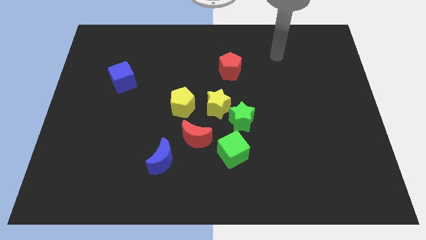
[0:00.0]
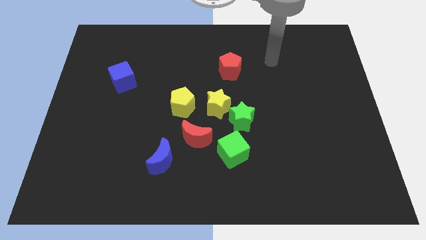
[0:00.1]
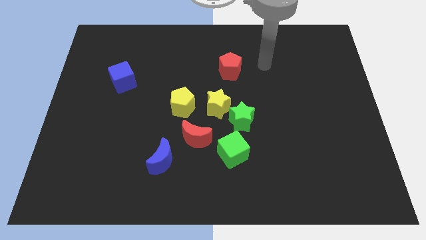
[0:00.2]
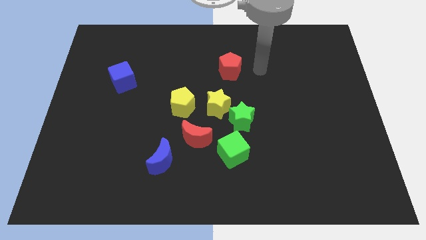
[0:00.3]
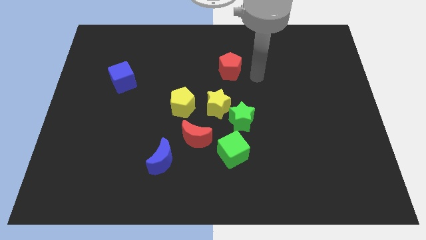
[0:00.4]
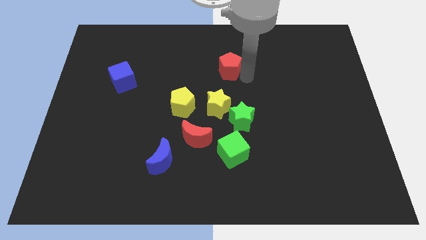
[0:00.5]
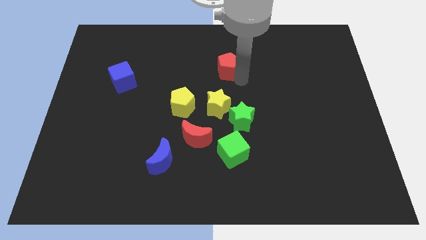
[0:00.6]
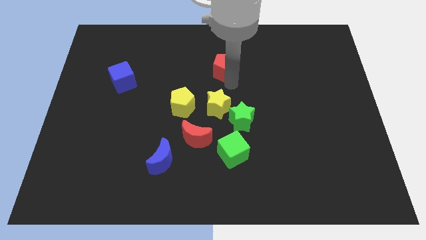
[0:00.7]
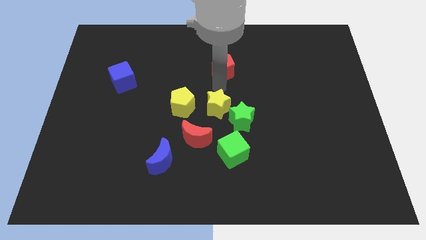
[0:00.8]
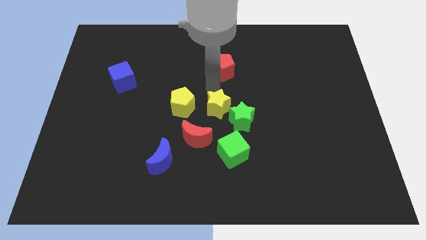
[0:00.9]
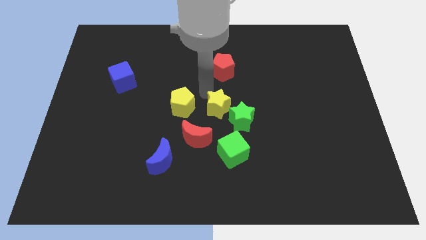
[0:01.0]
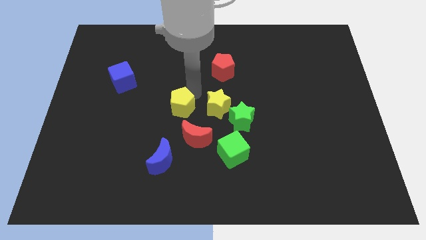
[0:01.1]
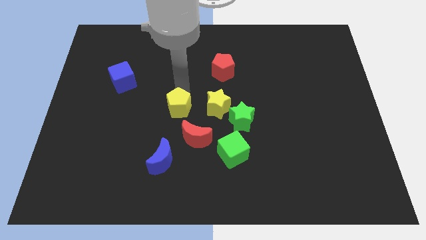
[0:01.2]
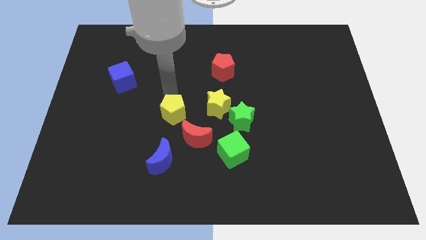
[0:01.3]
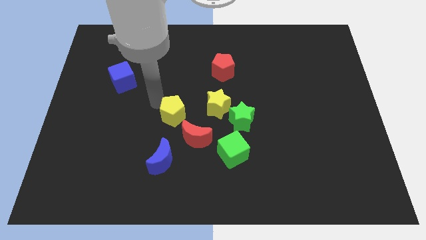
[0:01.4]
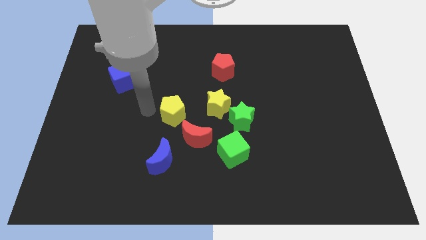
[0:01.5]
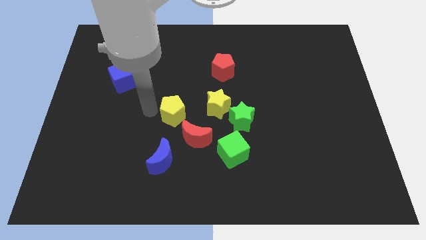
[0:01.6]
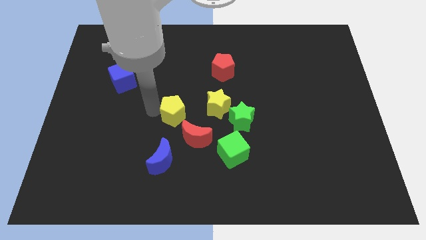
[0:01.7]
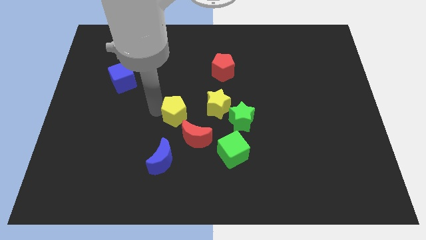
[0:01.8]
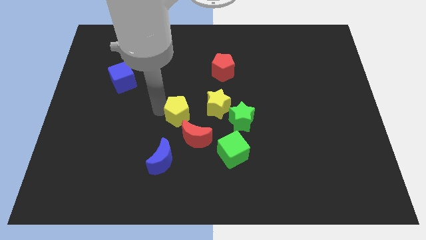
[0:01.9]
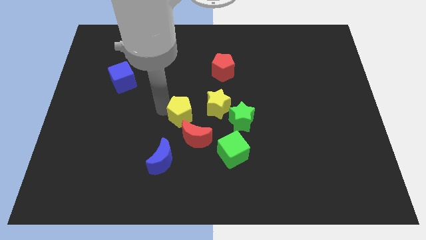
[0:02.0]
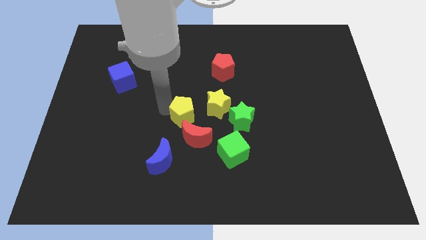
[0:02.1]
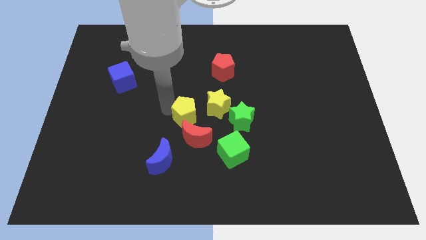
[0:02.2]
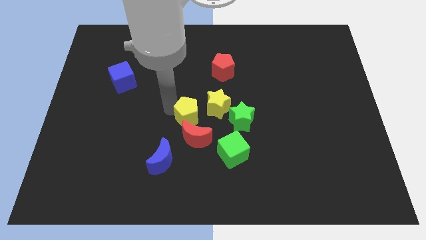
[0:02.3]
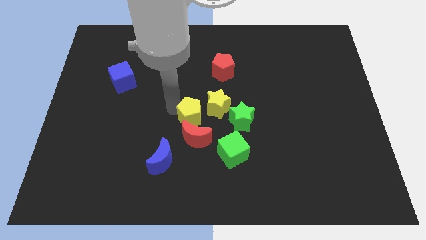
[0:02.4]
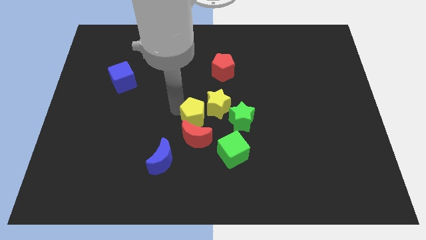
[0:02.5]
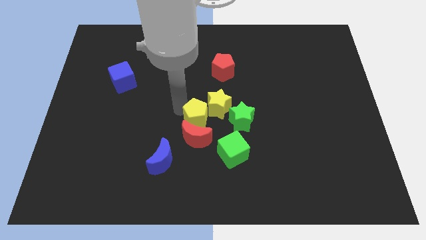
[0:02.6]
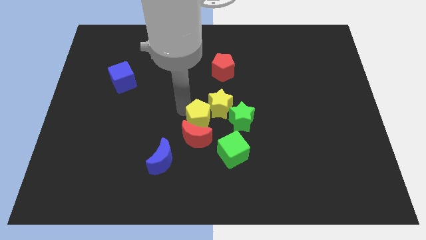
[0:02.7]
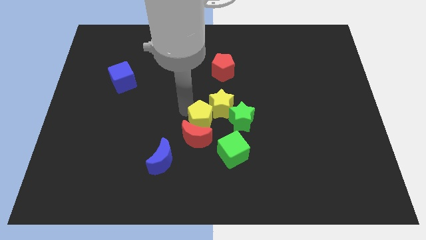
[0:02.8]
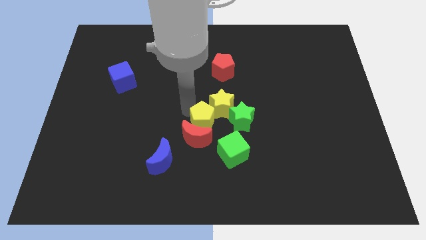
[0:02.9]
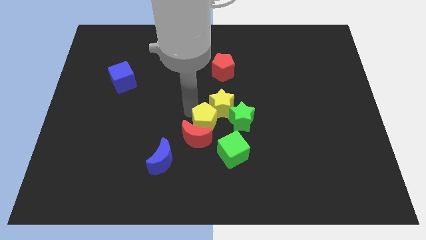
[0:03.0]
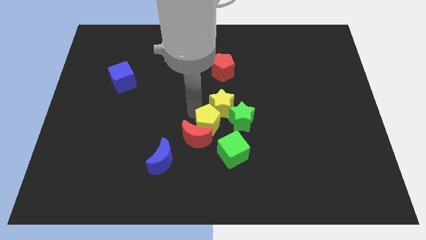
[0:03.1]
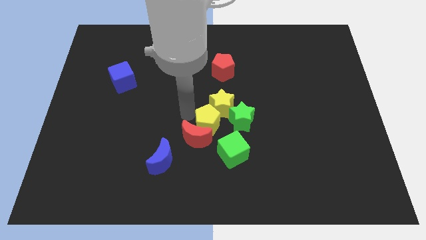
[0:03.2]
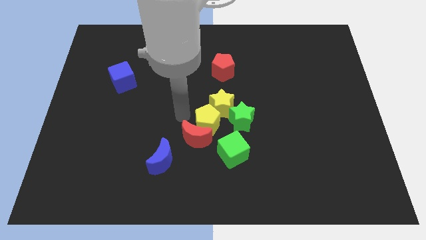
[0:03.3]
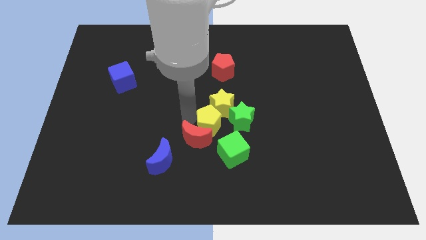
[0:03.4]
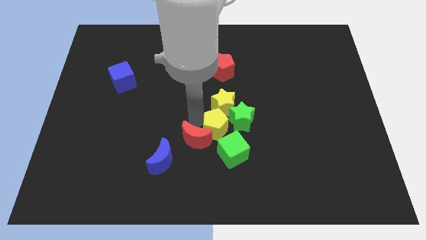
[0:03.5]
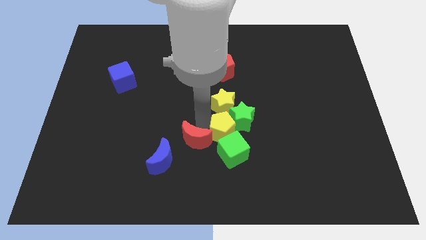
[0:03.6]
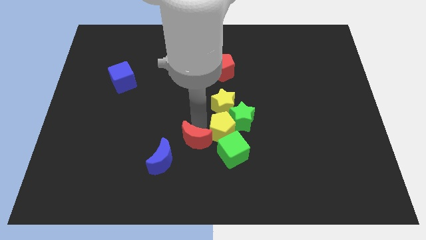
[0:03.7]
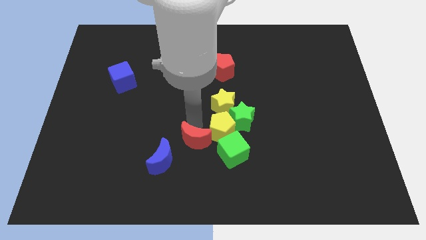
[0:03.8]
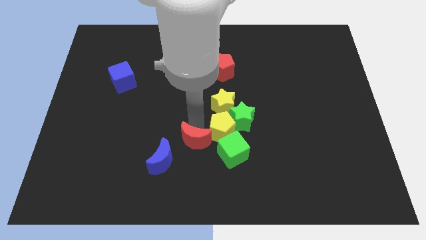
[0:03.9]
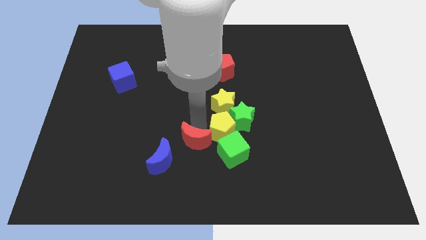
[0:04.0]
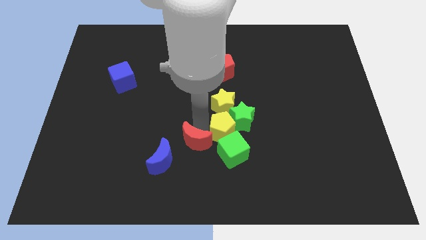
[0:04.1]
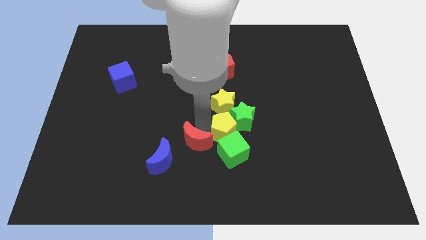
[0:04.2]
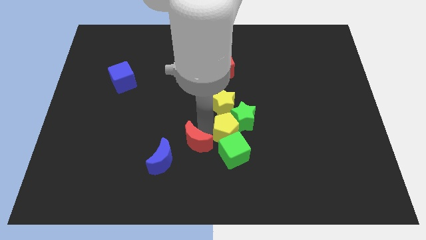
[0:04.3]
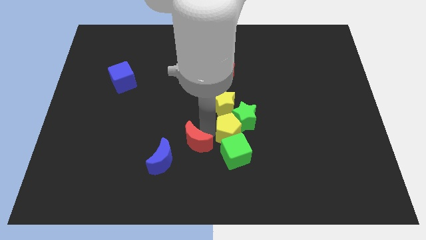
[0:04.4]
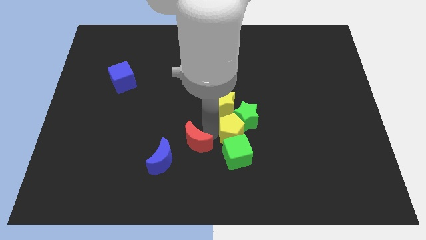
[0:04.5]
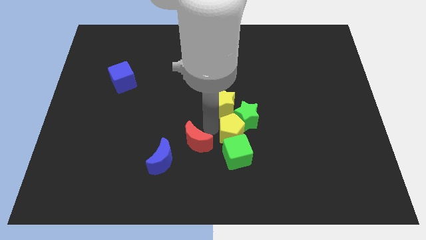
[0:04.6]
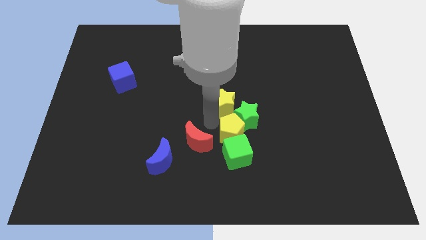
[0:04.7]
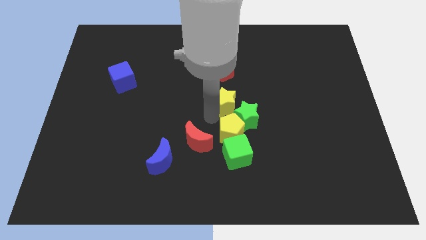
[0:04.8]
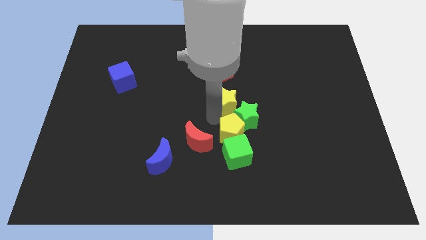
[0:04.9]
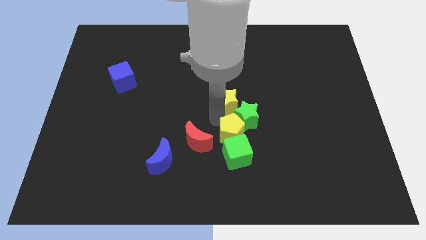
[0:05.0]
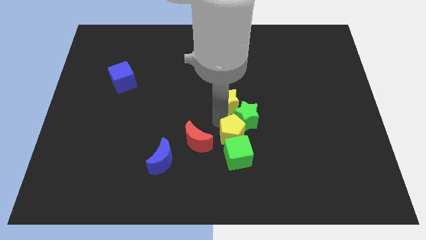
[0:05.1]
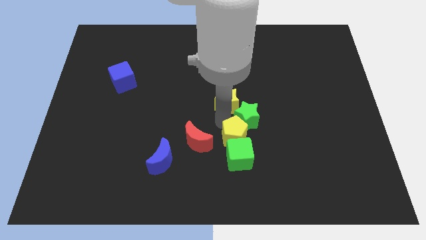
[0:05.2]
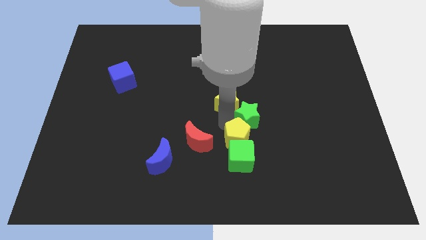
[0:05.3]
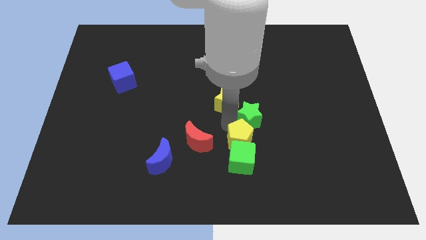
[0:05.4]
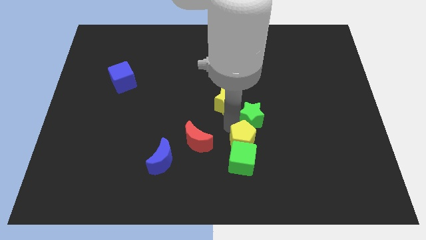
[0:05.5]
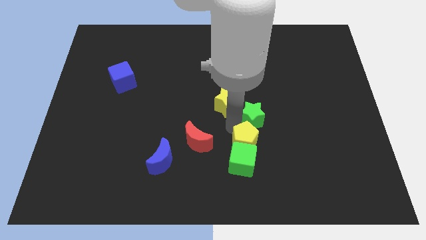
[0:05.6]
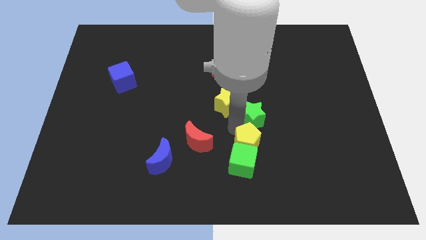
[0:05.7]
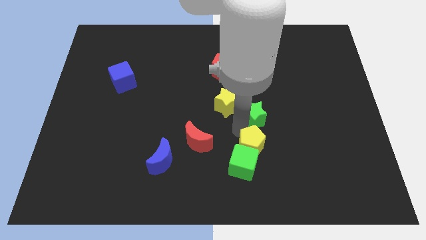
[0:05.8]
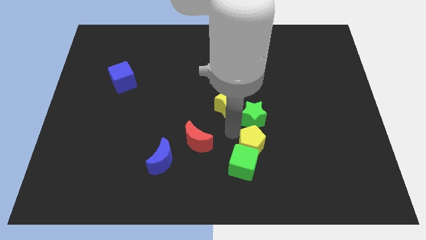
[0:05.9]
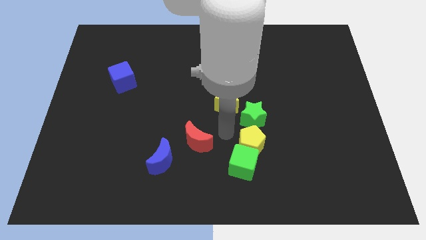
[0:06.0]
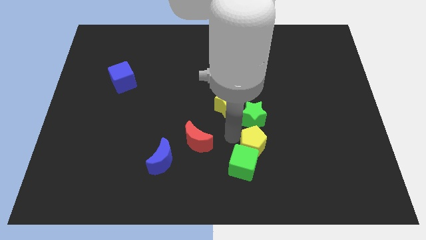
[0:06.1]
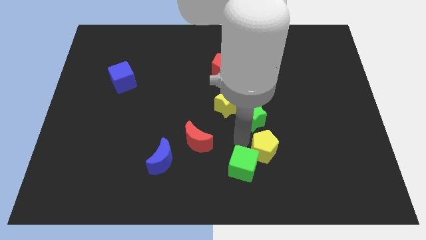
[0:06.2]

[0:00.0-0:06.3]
push the yellow pentagon right of the green cube
